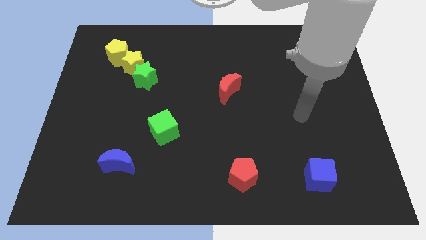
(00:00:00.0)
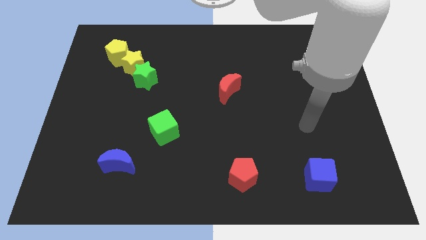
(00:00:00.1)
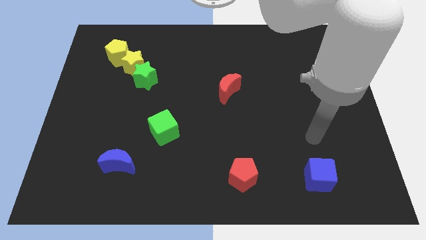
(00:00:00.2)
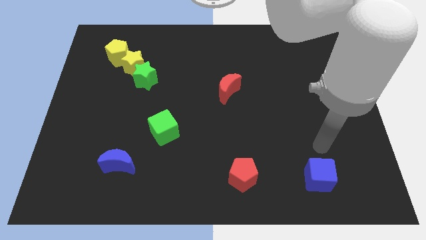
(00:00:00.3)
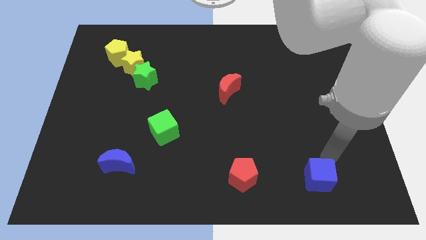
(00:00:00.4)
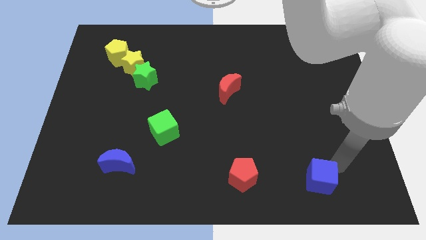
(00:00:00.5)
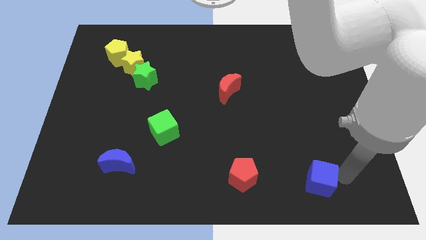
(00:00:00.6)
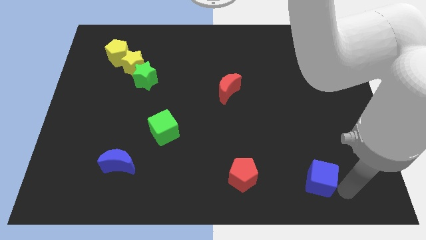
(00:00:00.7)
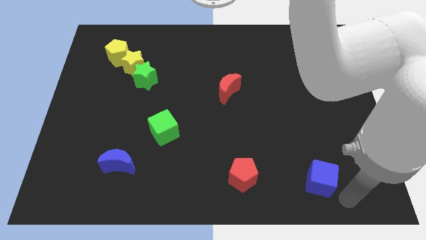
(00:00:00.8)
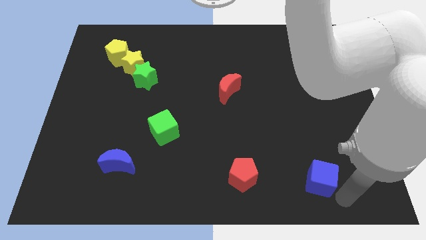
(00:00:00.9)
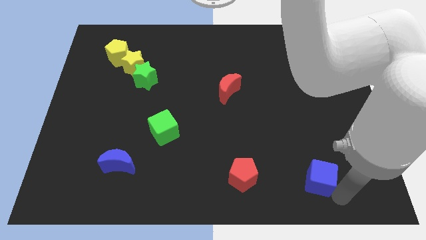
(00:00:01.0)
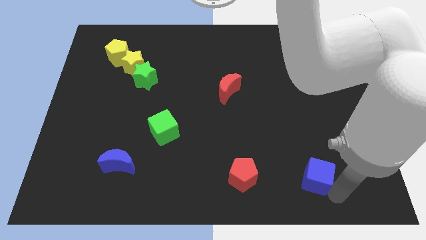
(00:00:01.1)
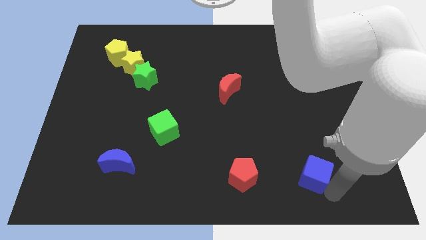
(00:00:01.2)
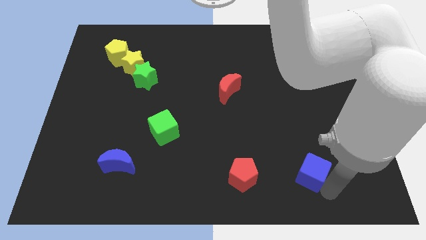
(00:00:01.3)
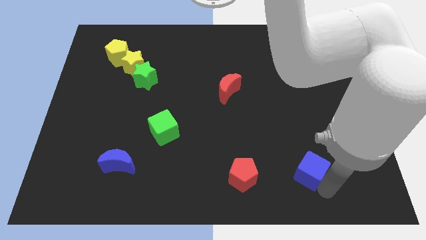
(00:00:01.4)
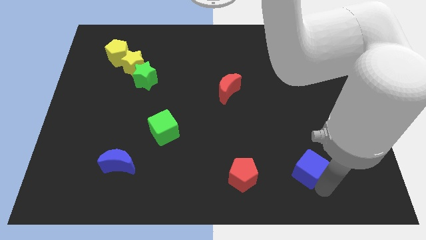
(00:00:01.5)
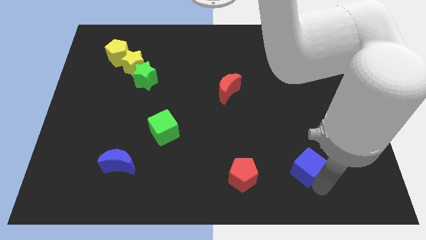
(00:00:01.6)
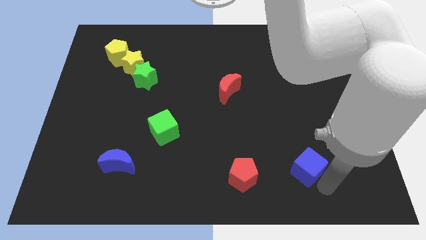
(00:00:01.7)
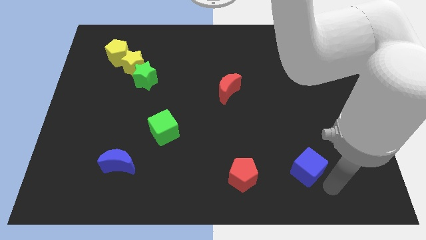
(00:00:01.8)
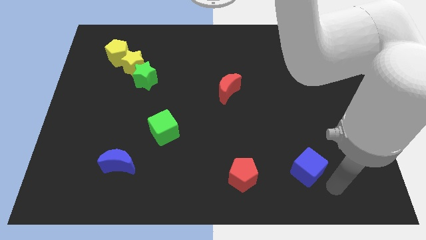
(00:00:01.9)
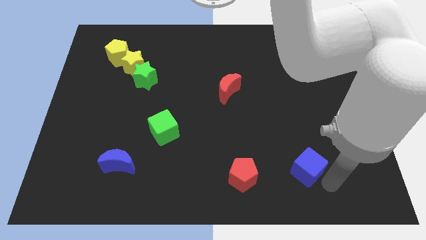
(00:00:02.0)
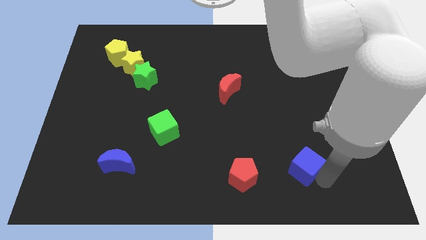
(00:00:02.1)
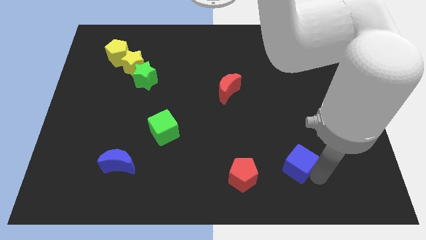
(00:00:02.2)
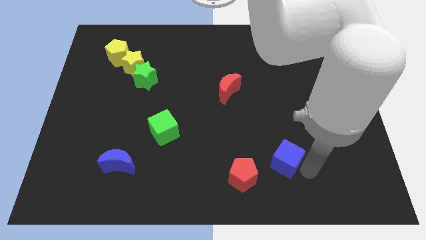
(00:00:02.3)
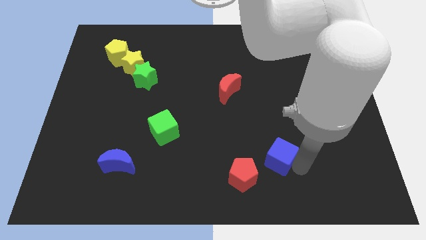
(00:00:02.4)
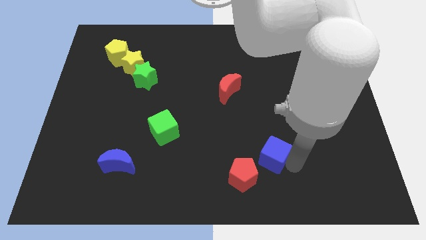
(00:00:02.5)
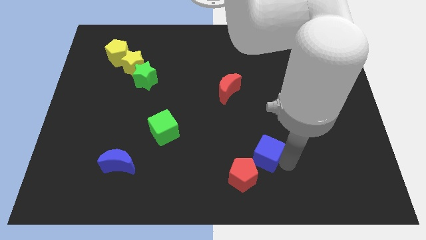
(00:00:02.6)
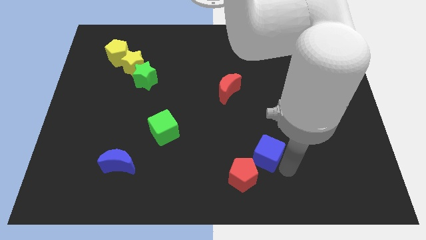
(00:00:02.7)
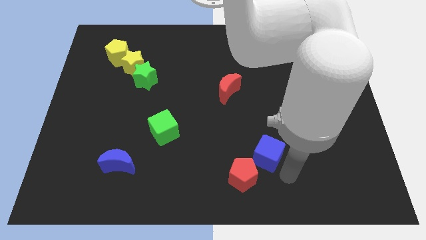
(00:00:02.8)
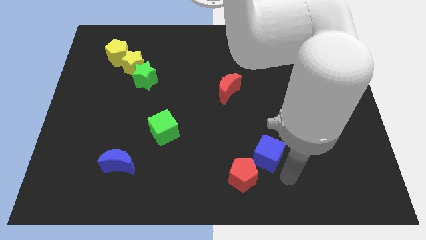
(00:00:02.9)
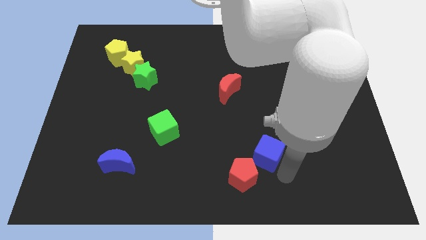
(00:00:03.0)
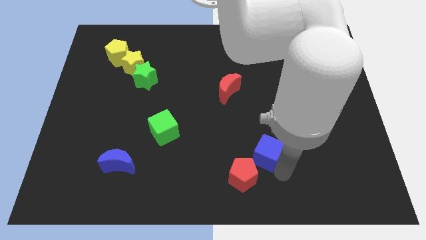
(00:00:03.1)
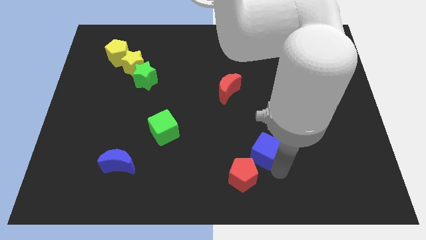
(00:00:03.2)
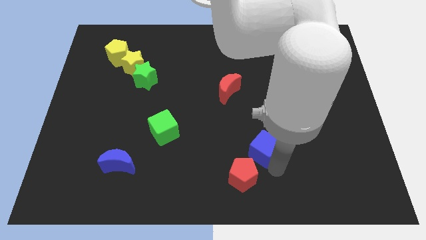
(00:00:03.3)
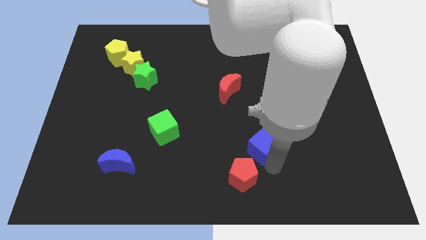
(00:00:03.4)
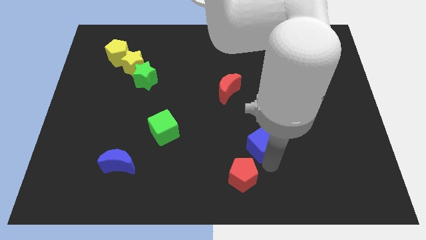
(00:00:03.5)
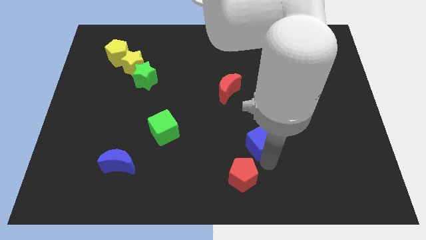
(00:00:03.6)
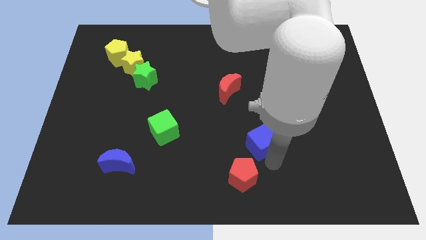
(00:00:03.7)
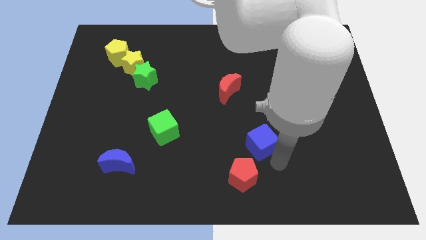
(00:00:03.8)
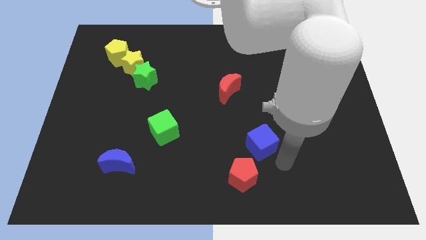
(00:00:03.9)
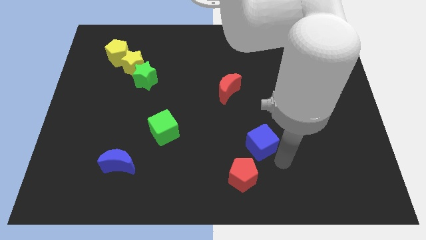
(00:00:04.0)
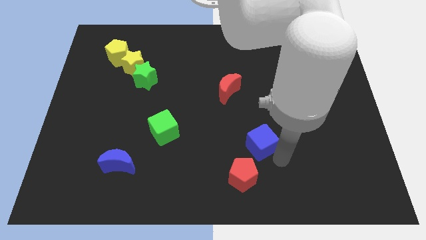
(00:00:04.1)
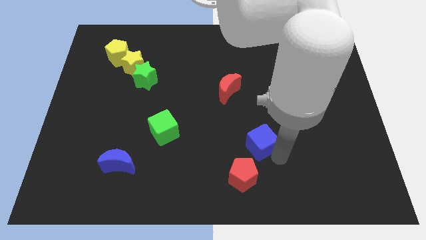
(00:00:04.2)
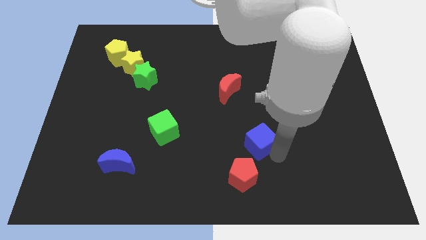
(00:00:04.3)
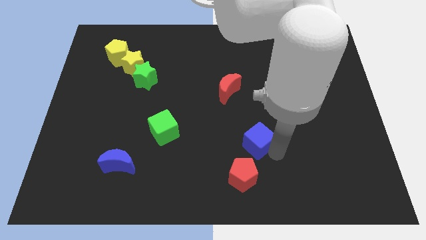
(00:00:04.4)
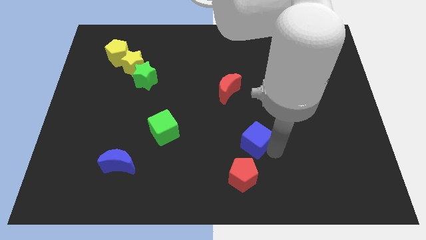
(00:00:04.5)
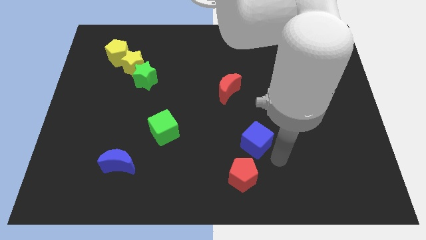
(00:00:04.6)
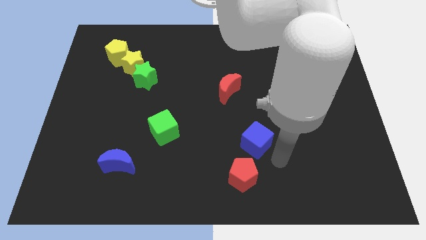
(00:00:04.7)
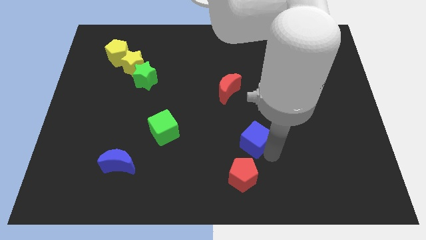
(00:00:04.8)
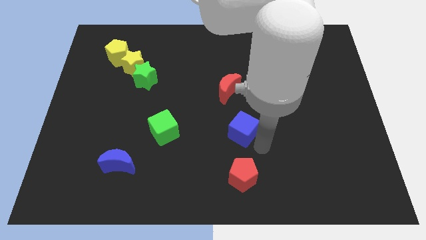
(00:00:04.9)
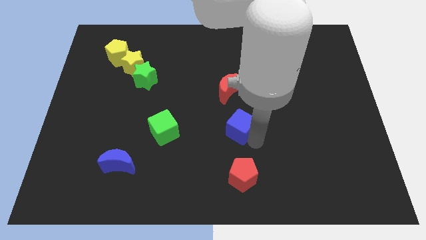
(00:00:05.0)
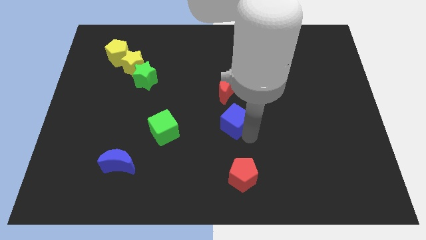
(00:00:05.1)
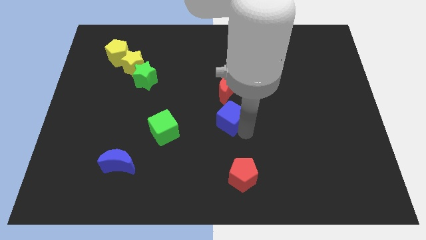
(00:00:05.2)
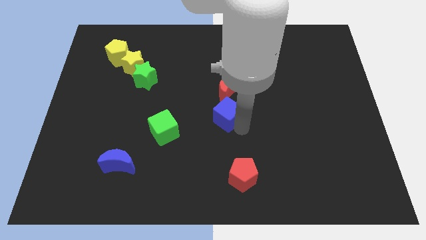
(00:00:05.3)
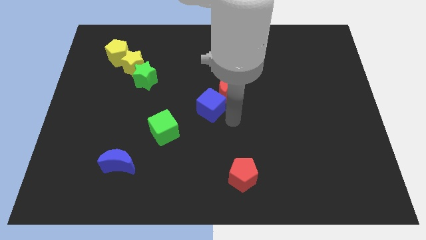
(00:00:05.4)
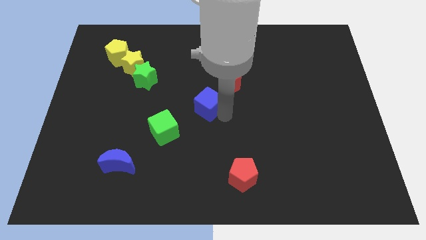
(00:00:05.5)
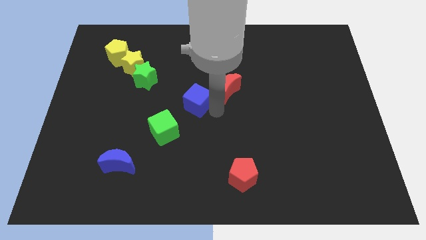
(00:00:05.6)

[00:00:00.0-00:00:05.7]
slide the blue cube to the left side of the red moon

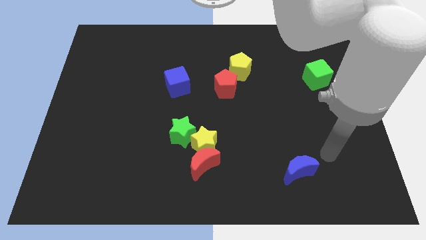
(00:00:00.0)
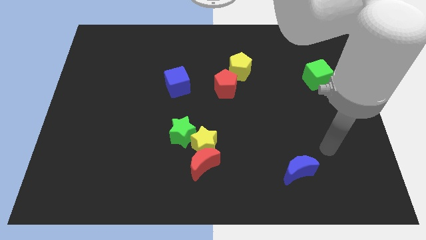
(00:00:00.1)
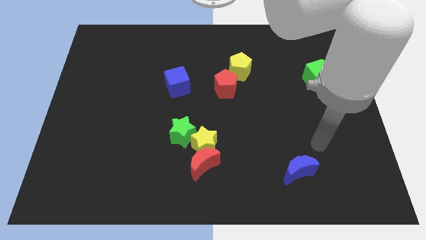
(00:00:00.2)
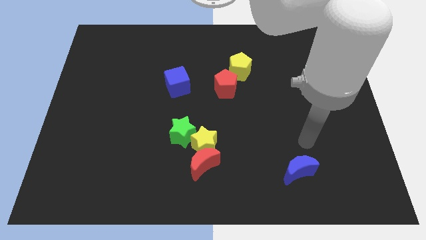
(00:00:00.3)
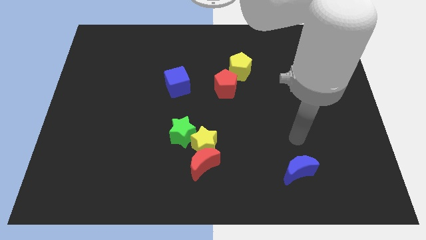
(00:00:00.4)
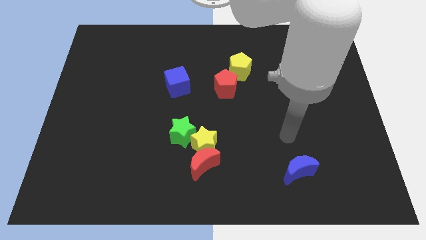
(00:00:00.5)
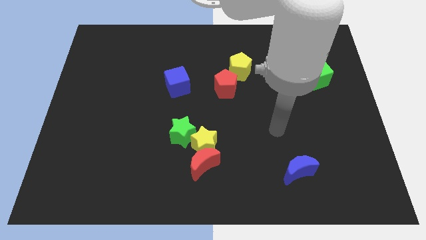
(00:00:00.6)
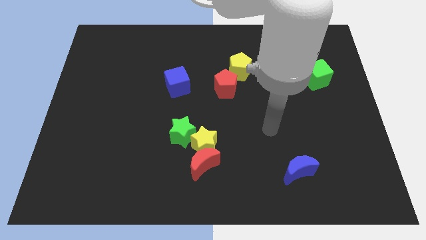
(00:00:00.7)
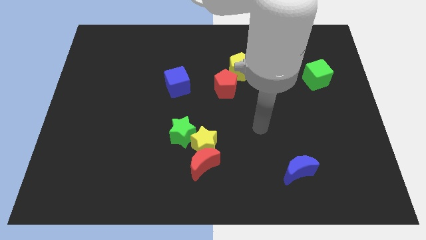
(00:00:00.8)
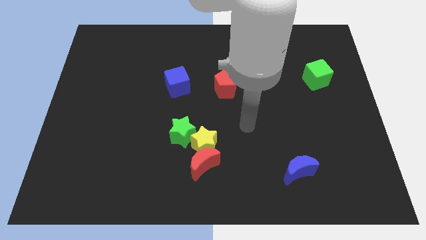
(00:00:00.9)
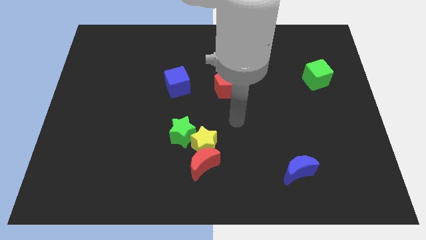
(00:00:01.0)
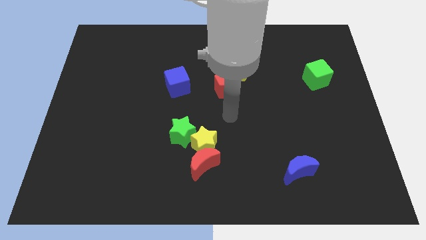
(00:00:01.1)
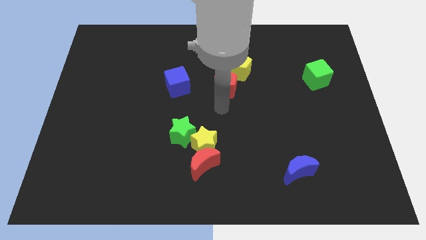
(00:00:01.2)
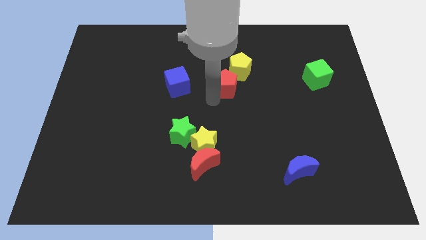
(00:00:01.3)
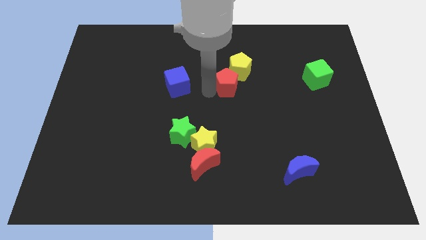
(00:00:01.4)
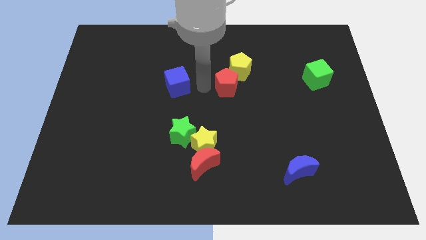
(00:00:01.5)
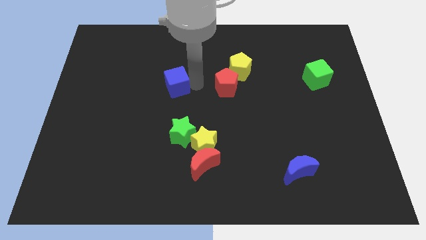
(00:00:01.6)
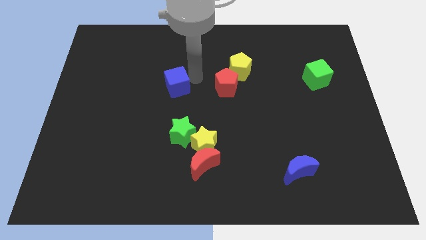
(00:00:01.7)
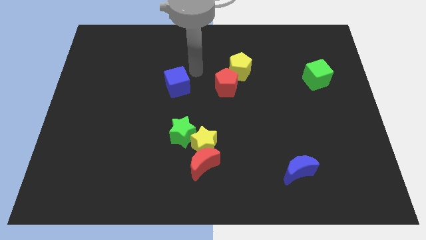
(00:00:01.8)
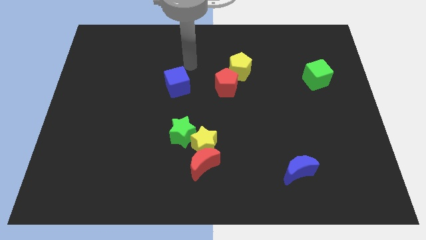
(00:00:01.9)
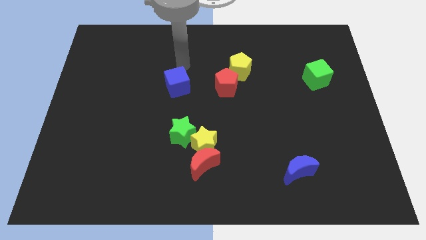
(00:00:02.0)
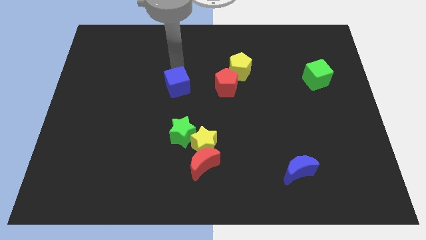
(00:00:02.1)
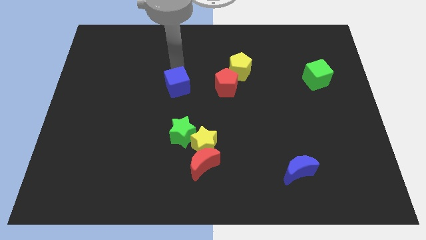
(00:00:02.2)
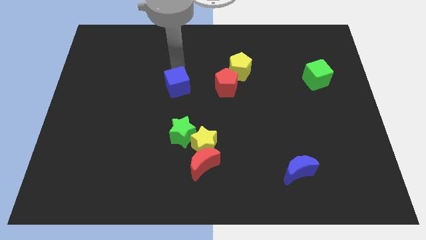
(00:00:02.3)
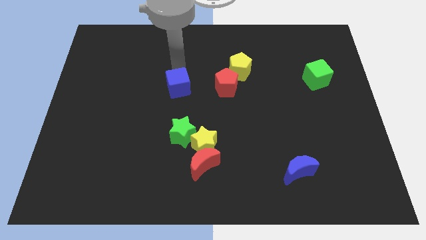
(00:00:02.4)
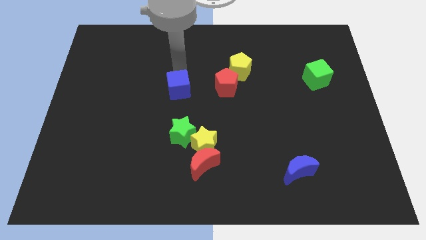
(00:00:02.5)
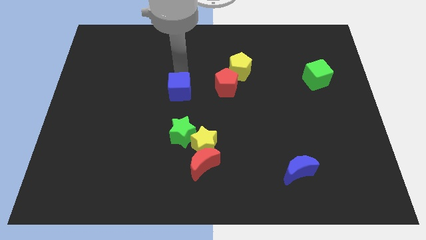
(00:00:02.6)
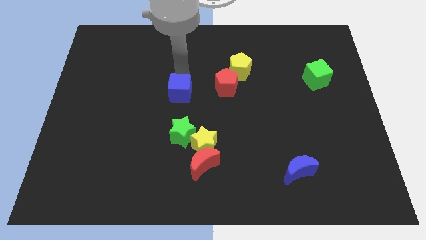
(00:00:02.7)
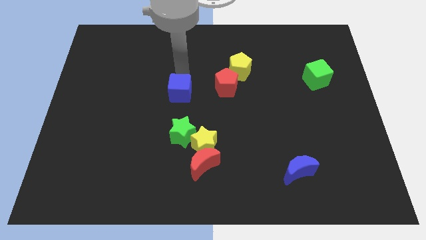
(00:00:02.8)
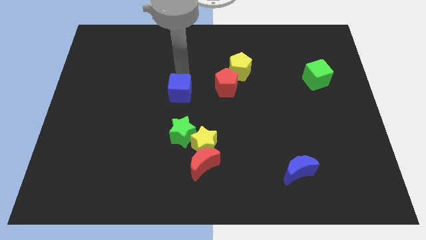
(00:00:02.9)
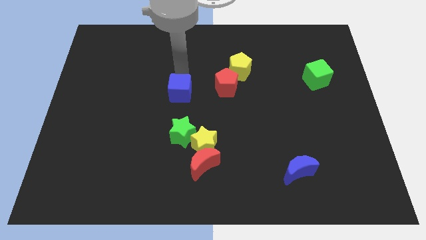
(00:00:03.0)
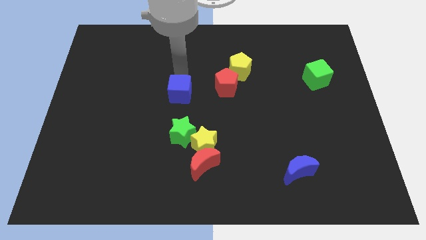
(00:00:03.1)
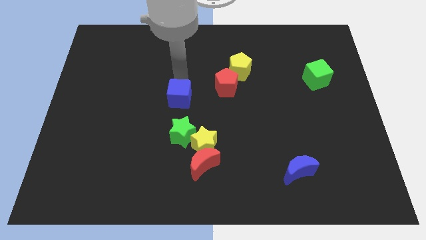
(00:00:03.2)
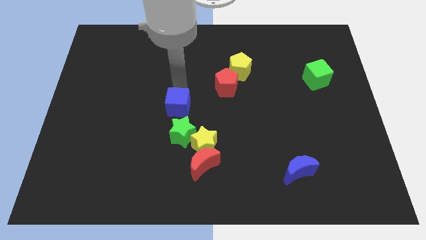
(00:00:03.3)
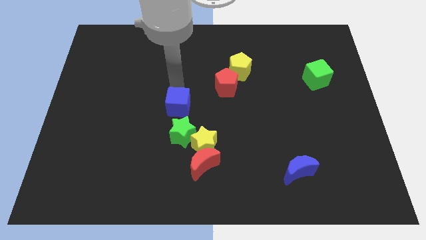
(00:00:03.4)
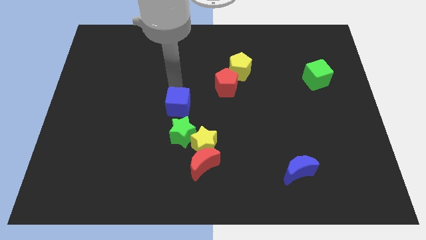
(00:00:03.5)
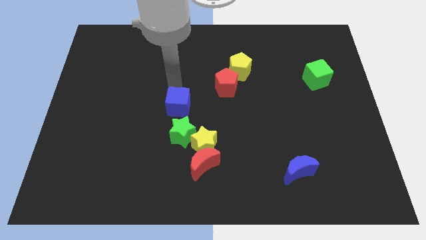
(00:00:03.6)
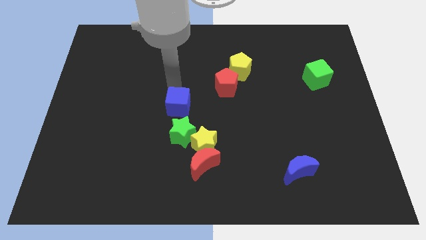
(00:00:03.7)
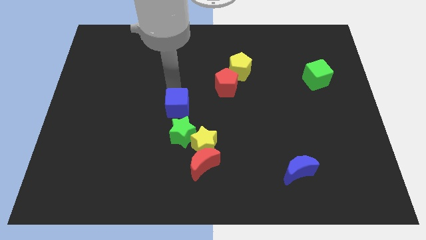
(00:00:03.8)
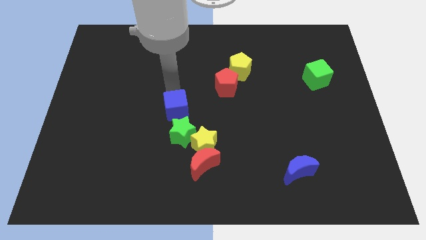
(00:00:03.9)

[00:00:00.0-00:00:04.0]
move the blue cube to the top left of the yellow star
